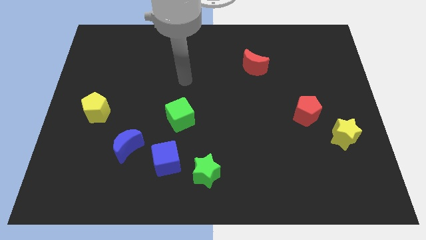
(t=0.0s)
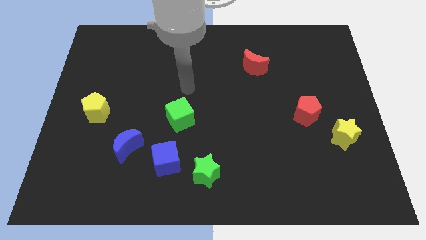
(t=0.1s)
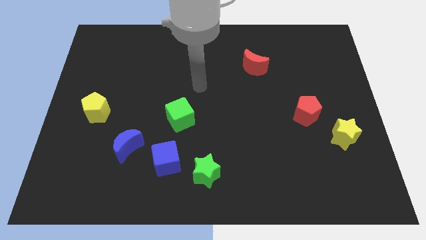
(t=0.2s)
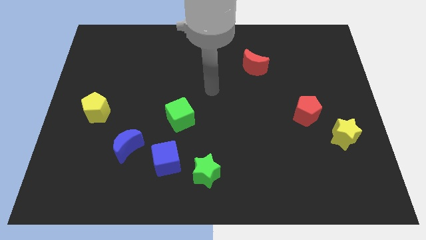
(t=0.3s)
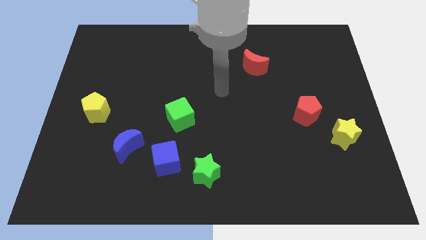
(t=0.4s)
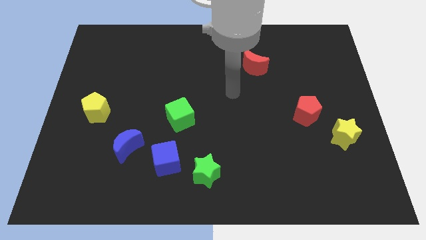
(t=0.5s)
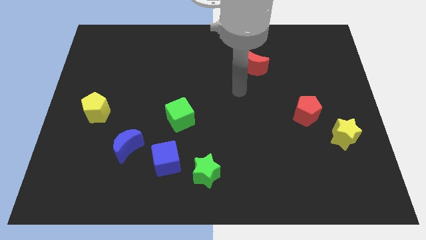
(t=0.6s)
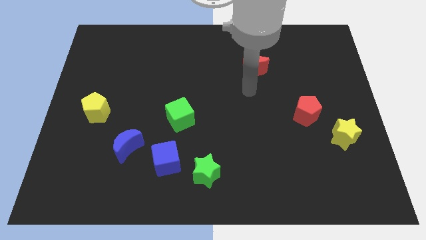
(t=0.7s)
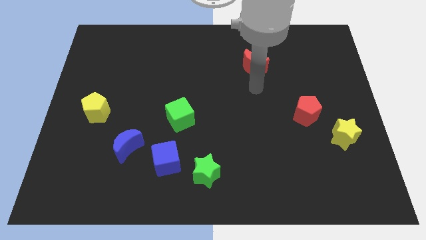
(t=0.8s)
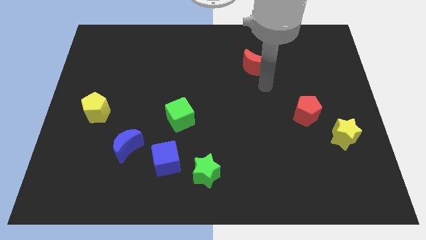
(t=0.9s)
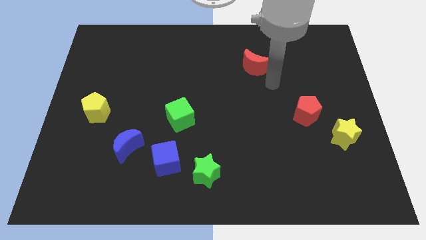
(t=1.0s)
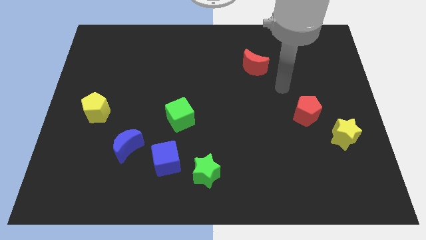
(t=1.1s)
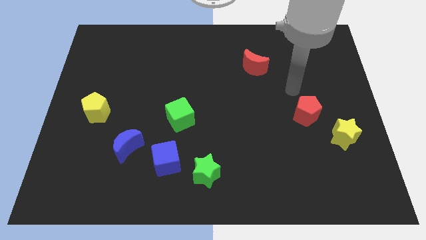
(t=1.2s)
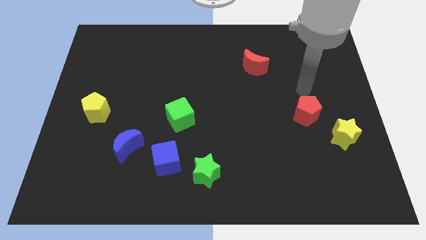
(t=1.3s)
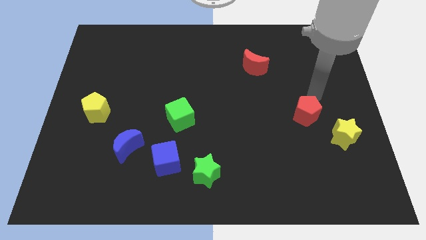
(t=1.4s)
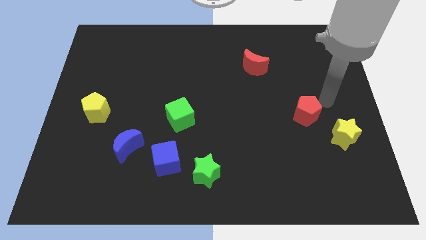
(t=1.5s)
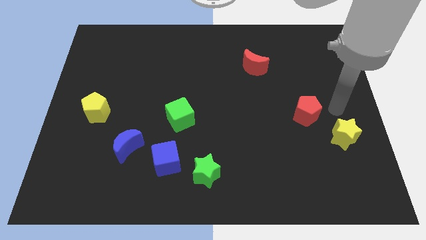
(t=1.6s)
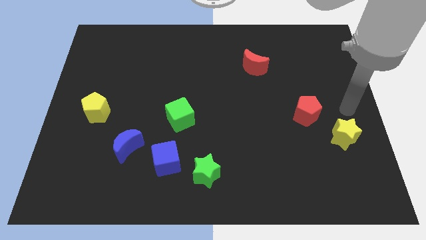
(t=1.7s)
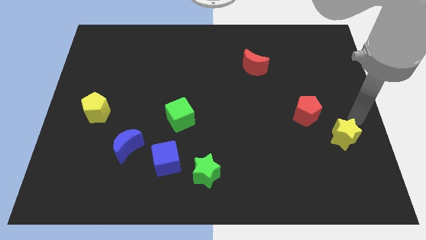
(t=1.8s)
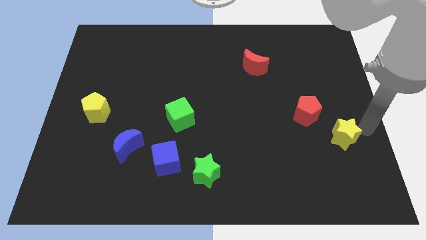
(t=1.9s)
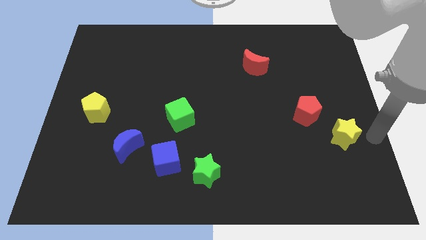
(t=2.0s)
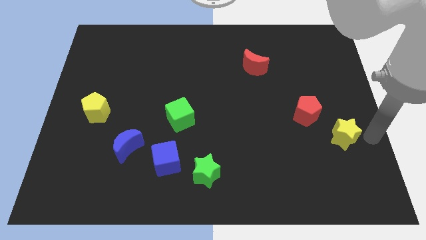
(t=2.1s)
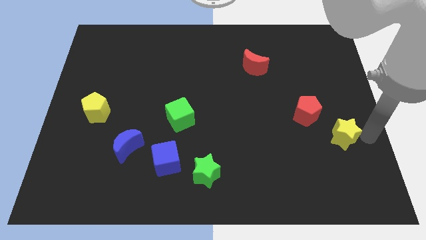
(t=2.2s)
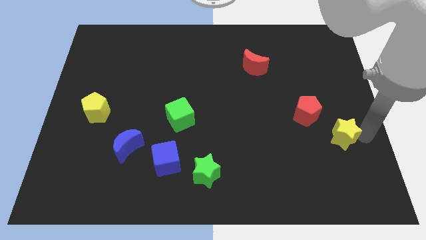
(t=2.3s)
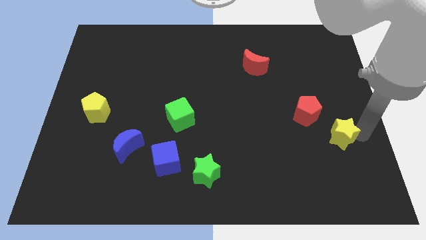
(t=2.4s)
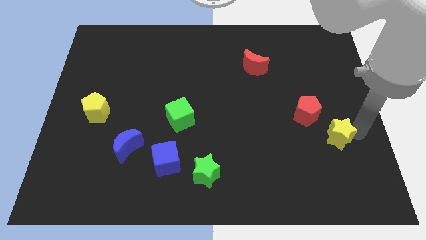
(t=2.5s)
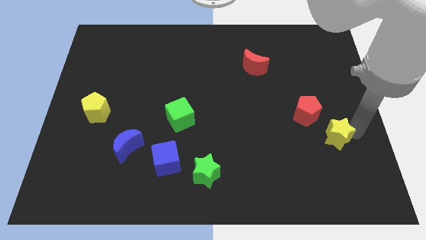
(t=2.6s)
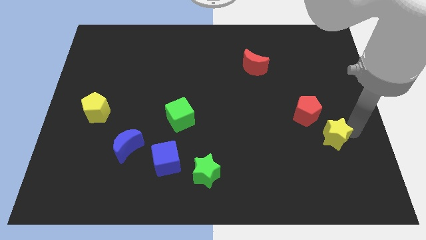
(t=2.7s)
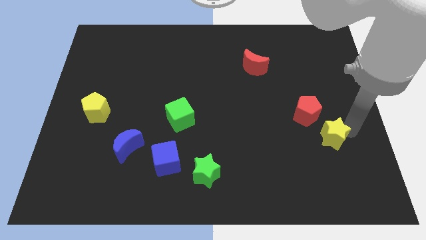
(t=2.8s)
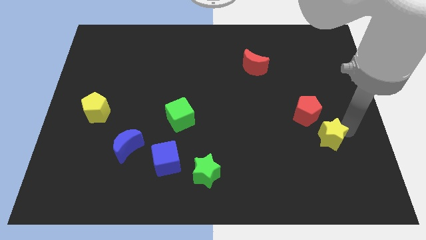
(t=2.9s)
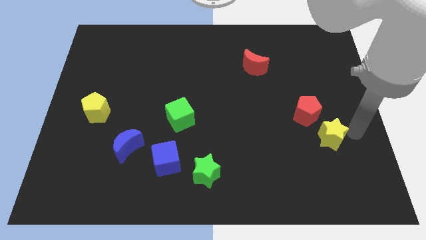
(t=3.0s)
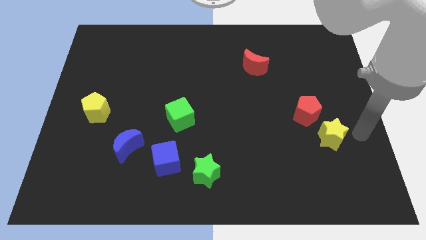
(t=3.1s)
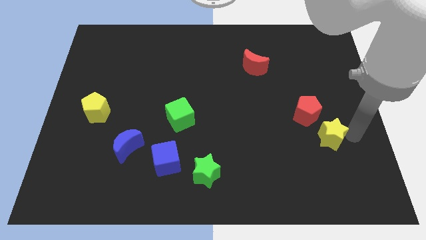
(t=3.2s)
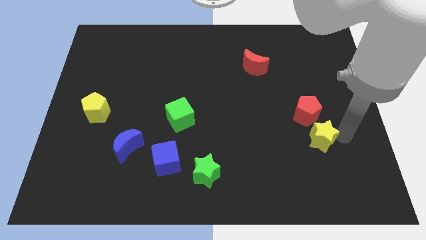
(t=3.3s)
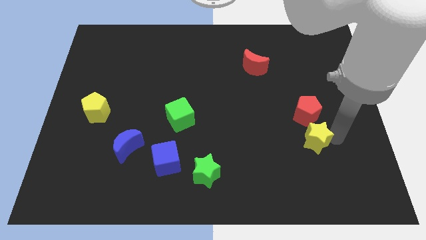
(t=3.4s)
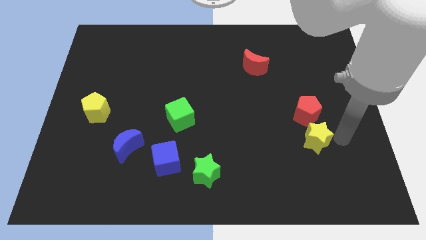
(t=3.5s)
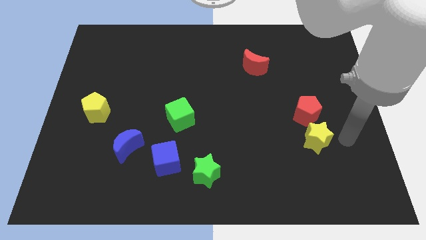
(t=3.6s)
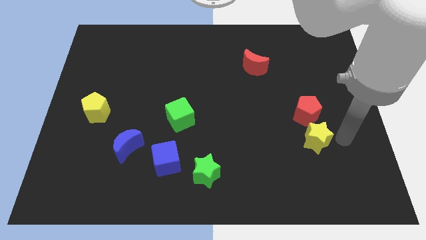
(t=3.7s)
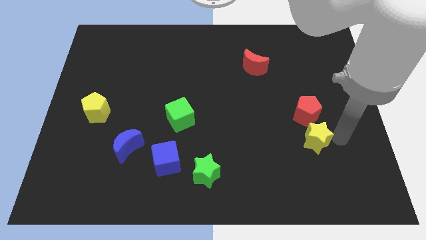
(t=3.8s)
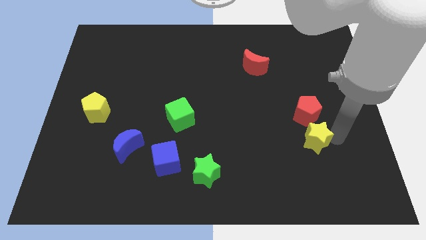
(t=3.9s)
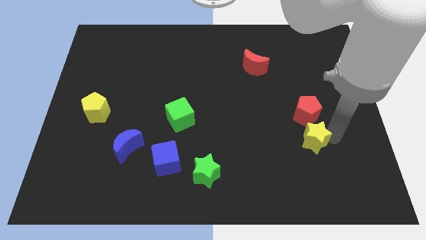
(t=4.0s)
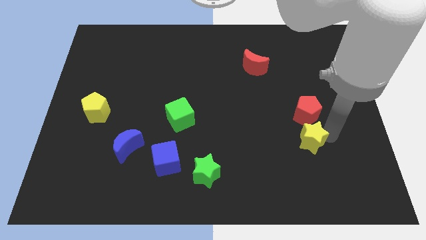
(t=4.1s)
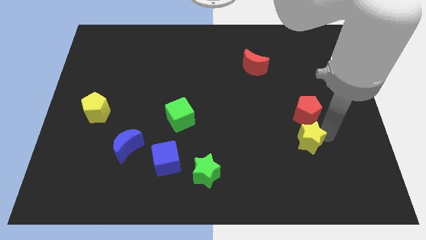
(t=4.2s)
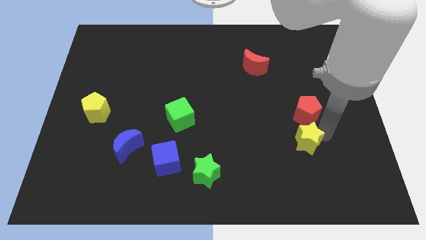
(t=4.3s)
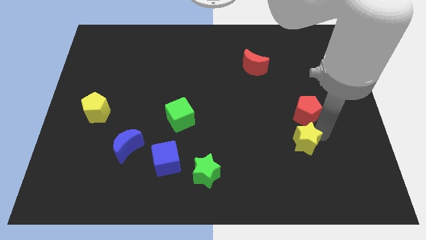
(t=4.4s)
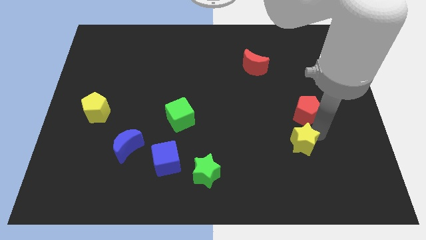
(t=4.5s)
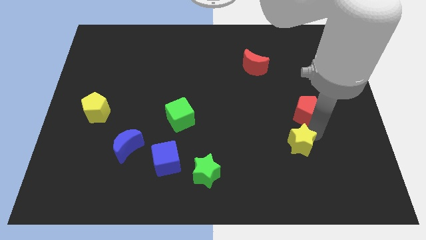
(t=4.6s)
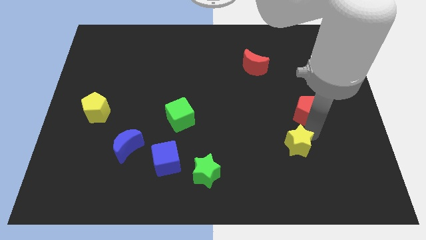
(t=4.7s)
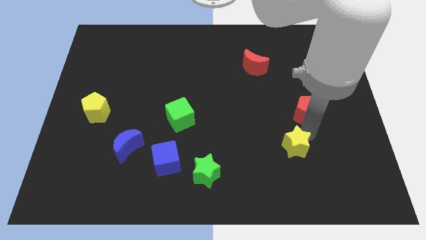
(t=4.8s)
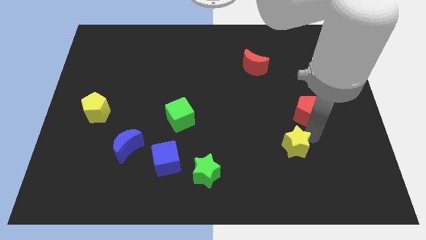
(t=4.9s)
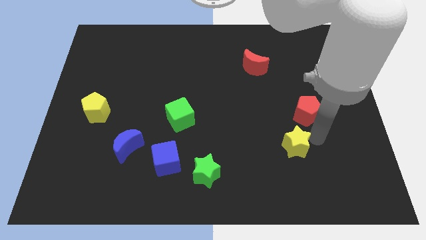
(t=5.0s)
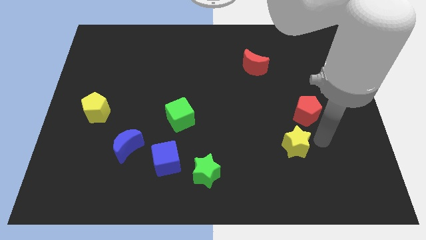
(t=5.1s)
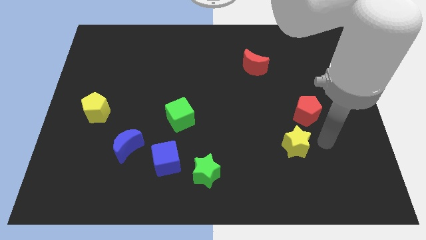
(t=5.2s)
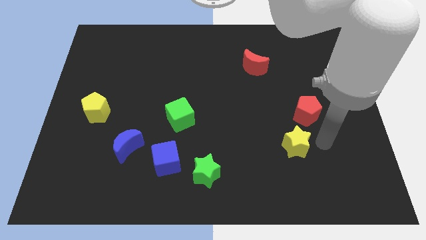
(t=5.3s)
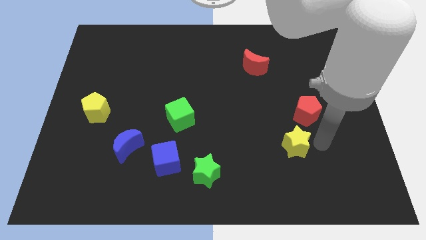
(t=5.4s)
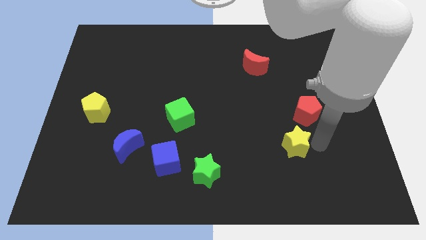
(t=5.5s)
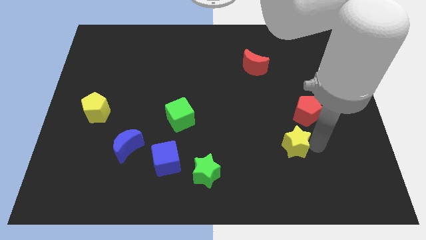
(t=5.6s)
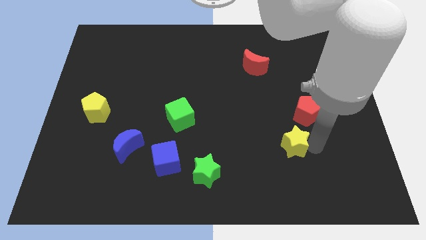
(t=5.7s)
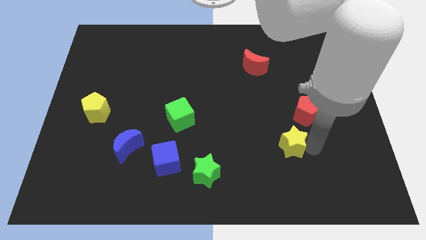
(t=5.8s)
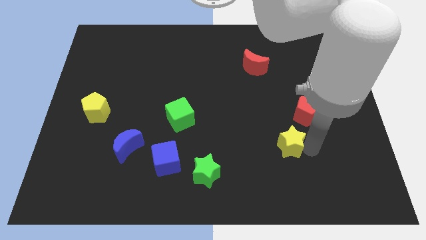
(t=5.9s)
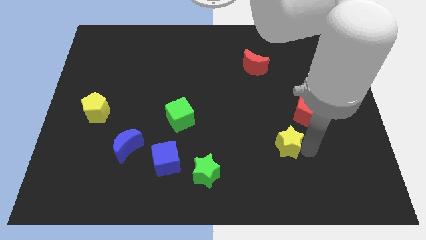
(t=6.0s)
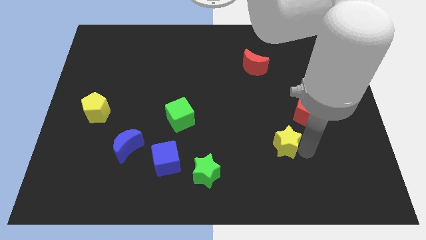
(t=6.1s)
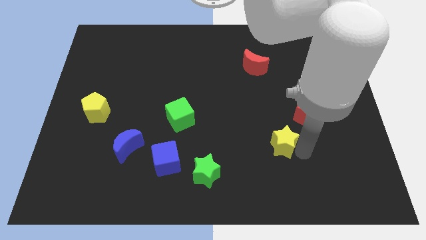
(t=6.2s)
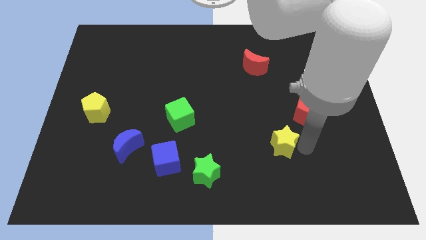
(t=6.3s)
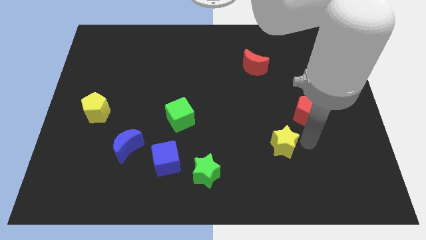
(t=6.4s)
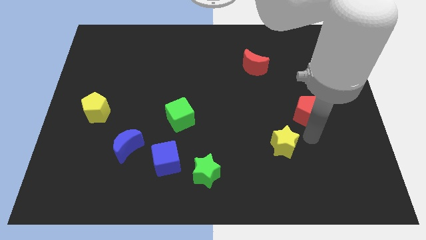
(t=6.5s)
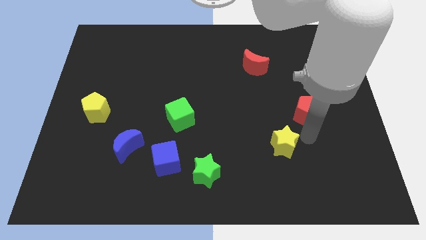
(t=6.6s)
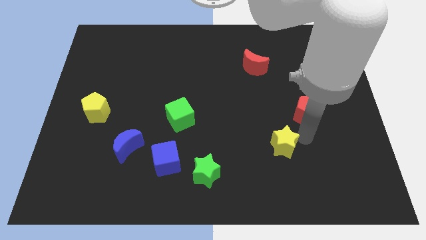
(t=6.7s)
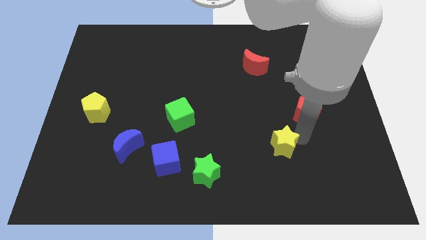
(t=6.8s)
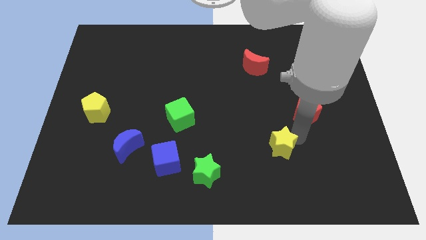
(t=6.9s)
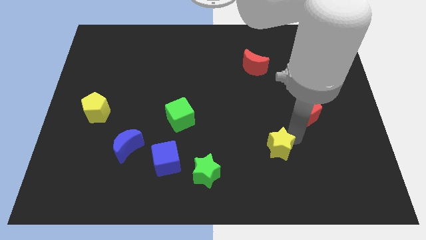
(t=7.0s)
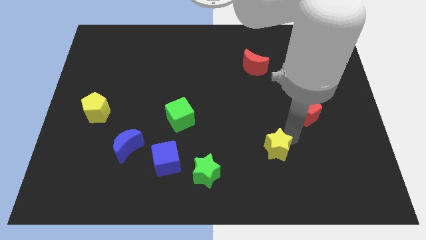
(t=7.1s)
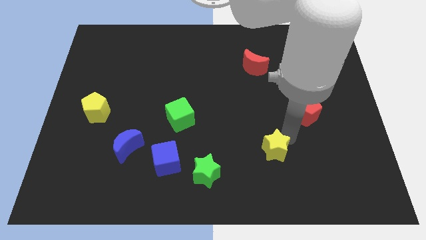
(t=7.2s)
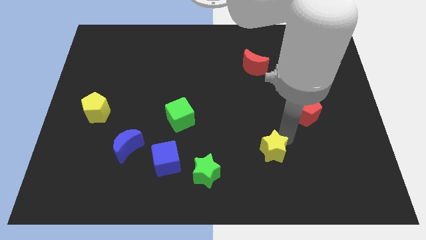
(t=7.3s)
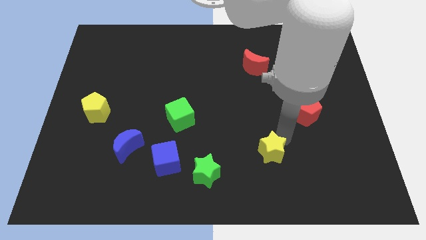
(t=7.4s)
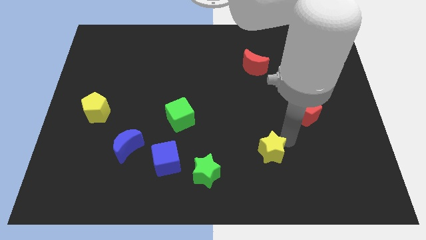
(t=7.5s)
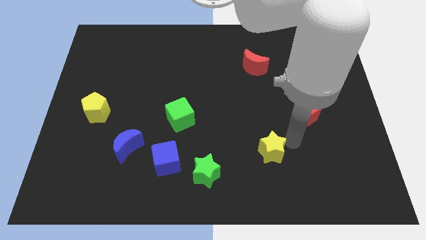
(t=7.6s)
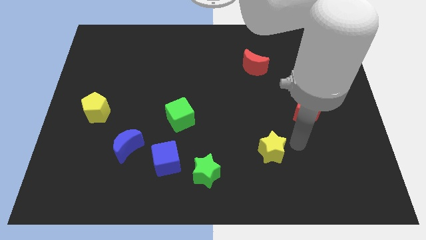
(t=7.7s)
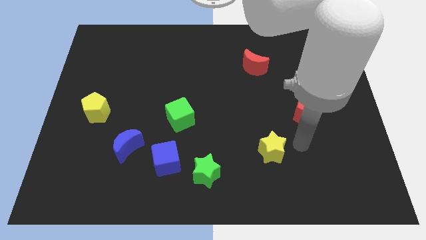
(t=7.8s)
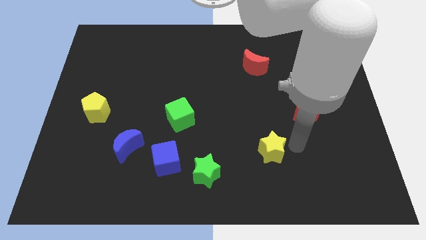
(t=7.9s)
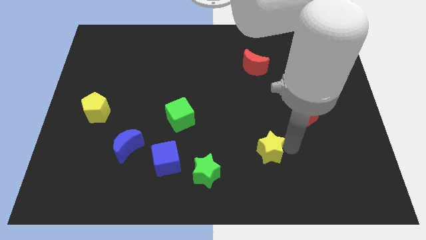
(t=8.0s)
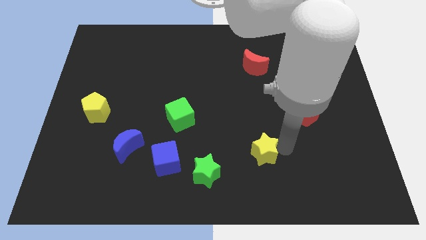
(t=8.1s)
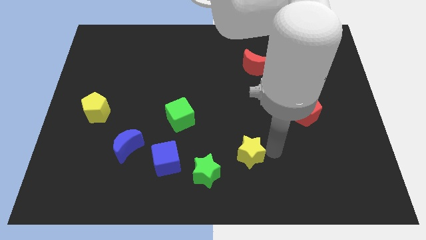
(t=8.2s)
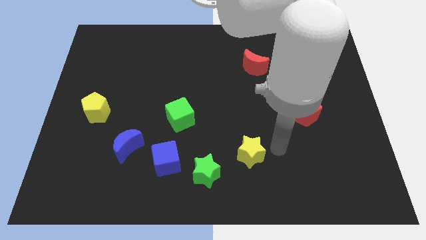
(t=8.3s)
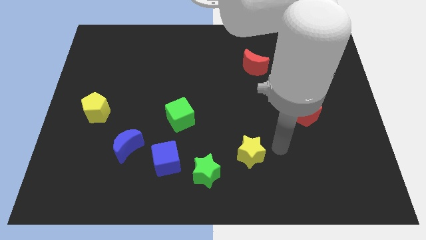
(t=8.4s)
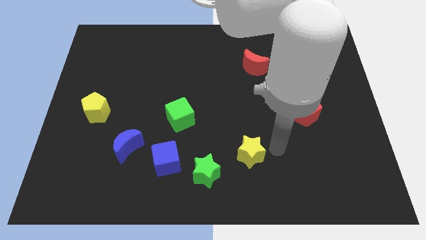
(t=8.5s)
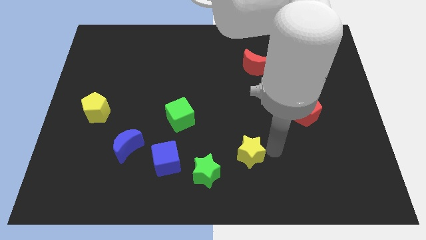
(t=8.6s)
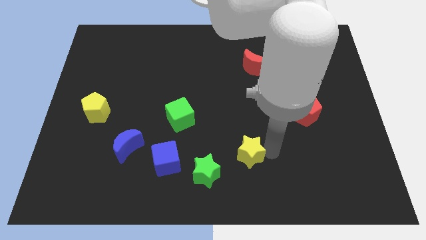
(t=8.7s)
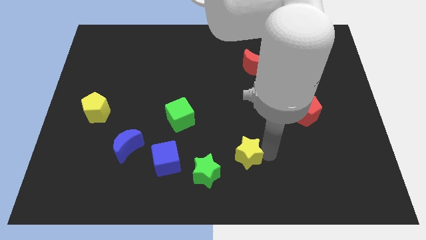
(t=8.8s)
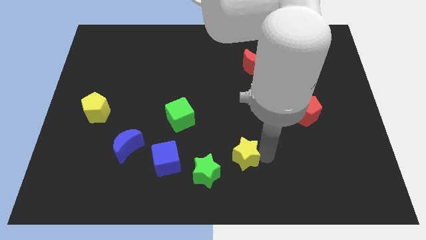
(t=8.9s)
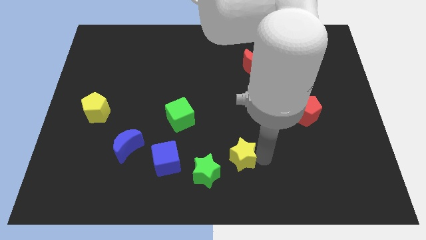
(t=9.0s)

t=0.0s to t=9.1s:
move the yellow star right of the blue cube
